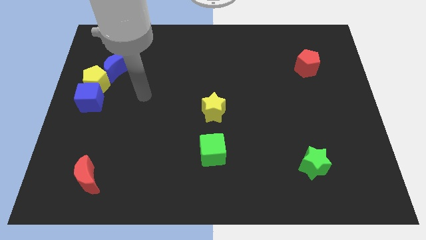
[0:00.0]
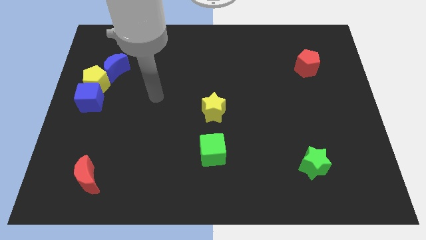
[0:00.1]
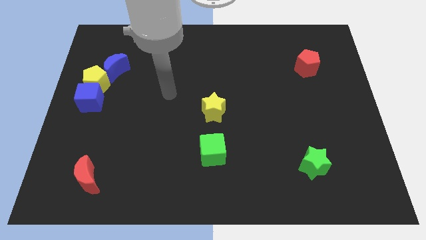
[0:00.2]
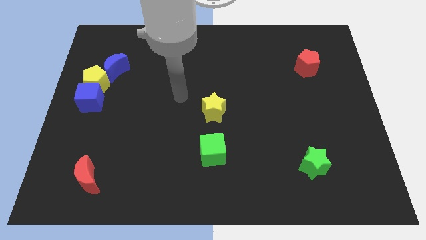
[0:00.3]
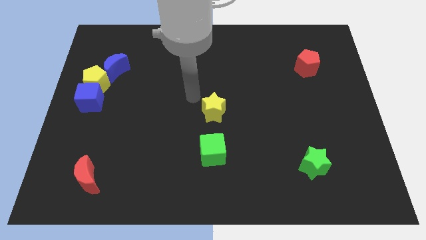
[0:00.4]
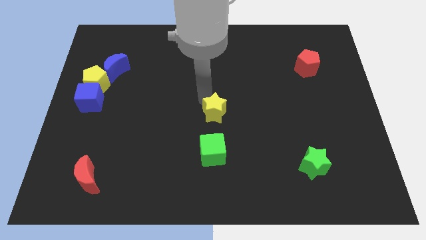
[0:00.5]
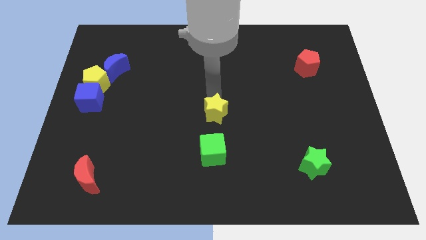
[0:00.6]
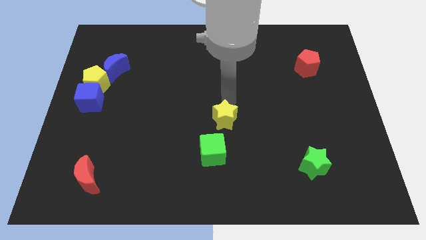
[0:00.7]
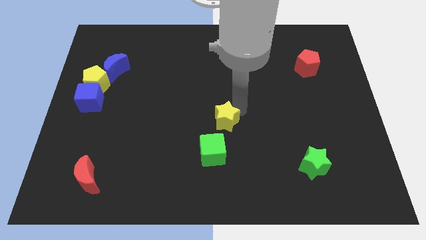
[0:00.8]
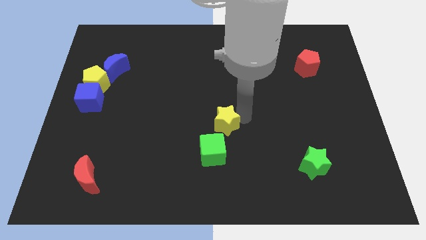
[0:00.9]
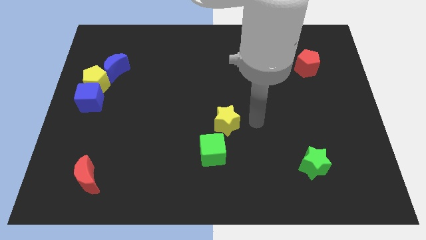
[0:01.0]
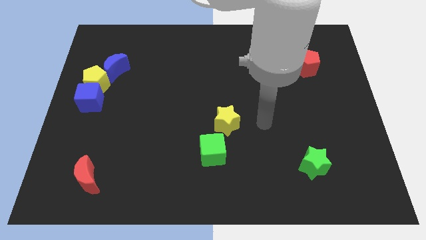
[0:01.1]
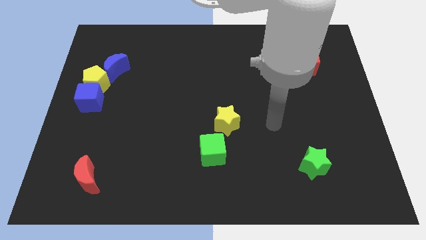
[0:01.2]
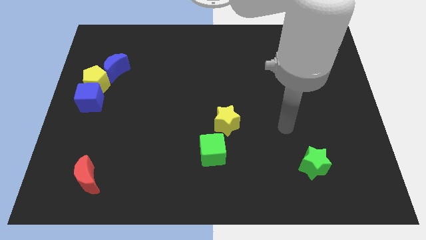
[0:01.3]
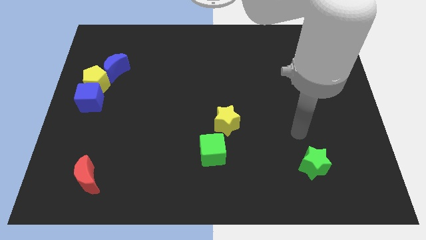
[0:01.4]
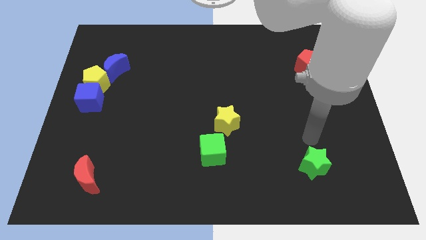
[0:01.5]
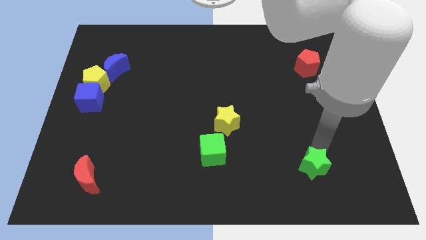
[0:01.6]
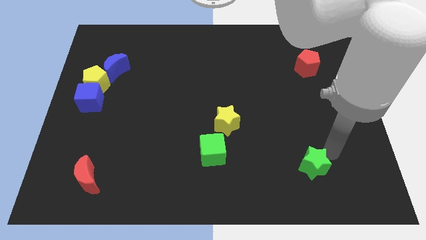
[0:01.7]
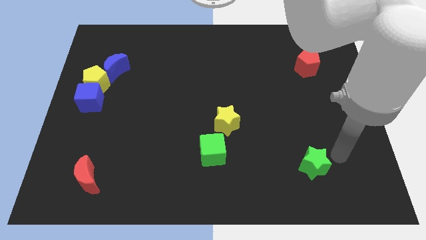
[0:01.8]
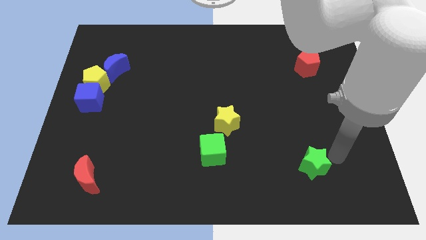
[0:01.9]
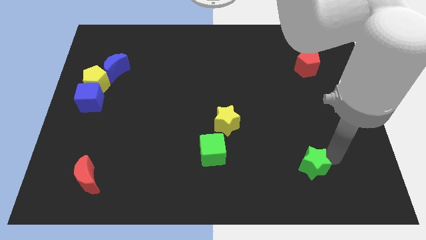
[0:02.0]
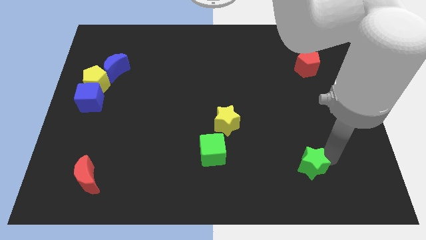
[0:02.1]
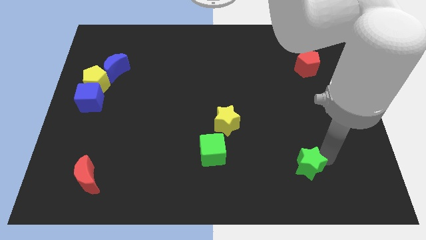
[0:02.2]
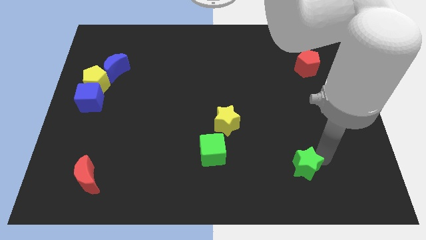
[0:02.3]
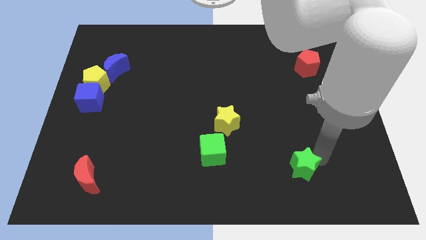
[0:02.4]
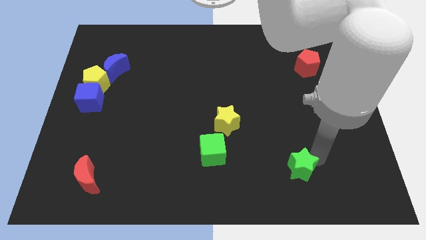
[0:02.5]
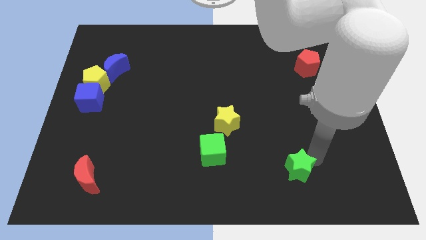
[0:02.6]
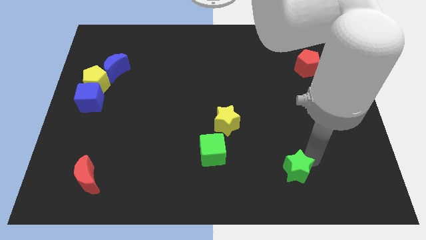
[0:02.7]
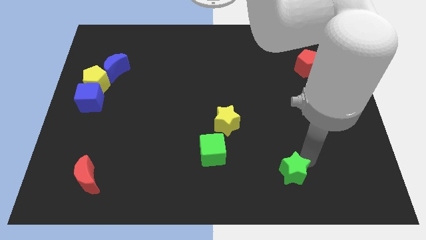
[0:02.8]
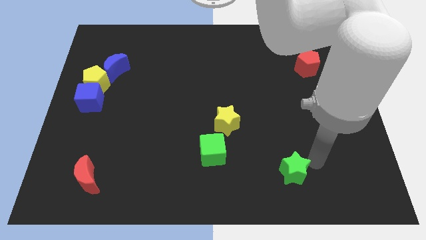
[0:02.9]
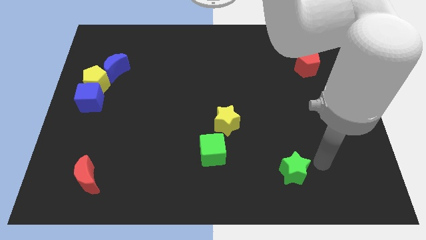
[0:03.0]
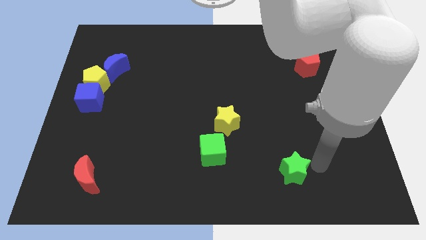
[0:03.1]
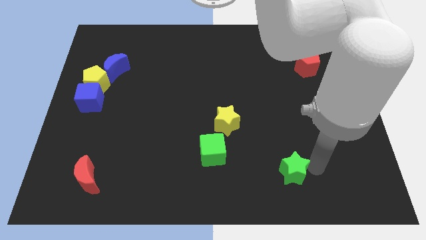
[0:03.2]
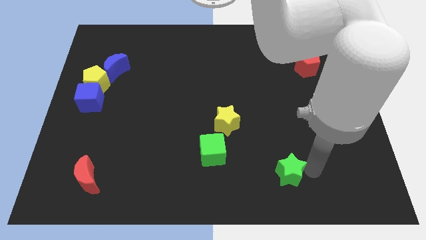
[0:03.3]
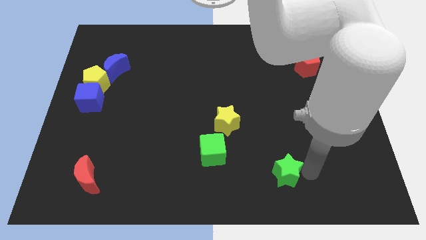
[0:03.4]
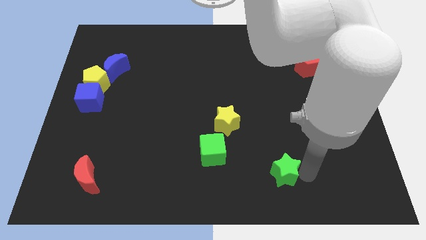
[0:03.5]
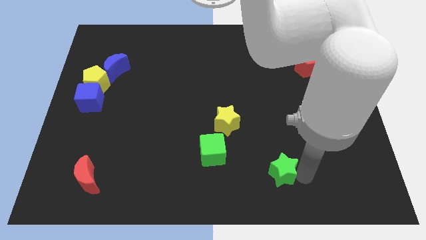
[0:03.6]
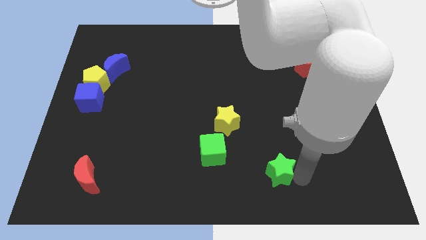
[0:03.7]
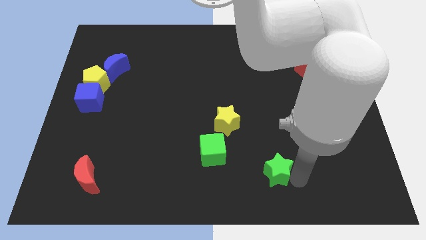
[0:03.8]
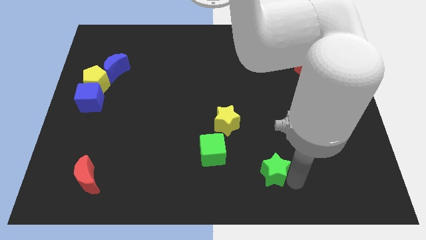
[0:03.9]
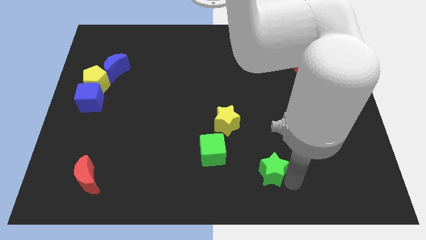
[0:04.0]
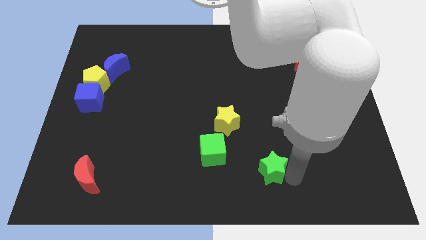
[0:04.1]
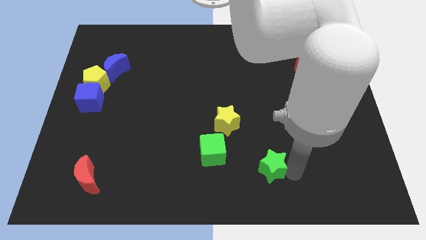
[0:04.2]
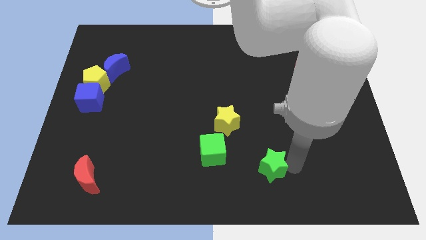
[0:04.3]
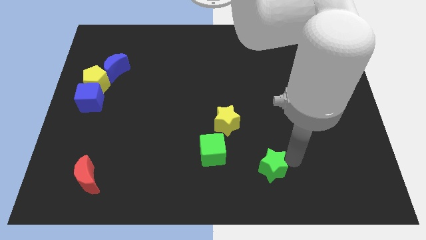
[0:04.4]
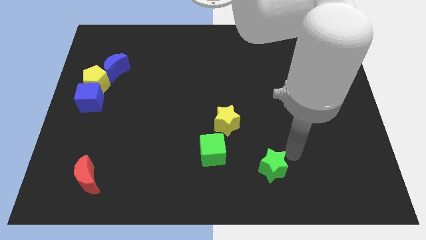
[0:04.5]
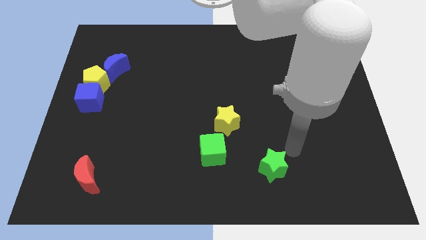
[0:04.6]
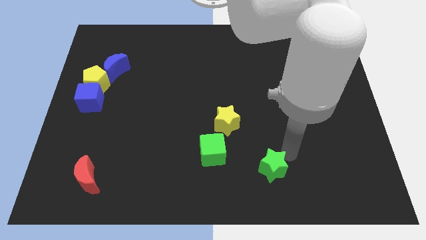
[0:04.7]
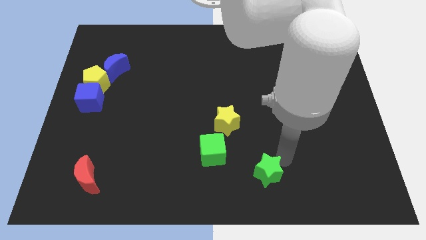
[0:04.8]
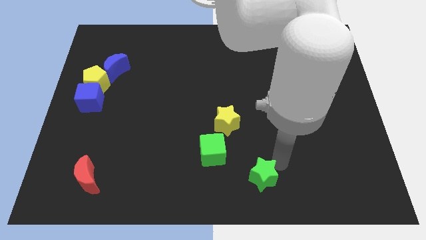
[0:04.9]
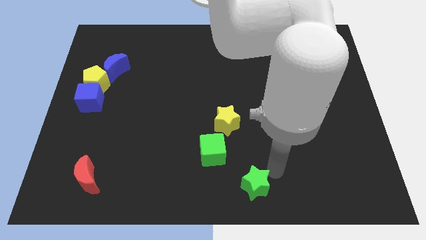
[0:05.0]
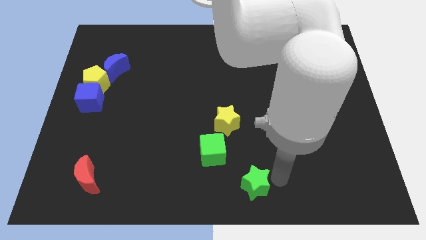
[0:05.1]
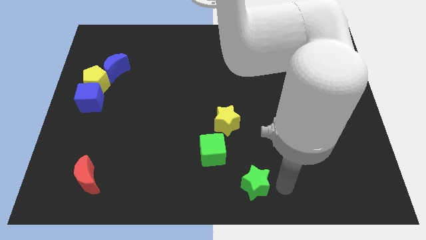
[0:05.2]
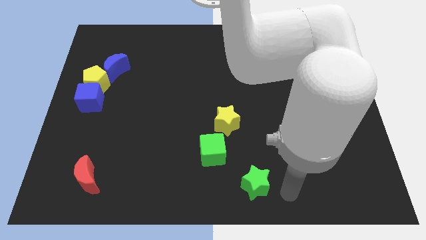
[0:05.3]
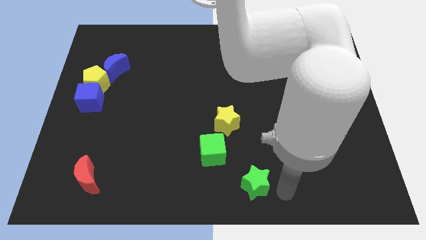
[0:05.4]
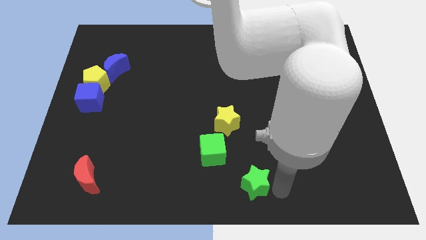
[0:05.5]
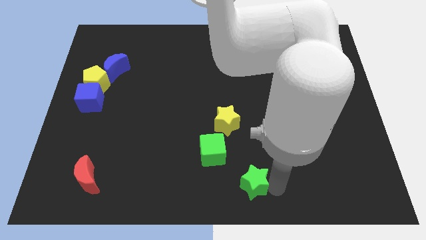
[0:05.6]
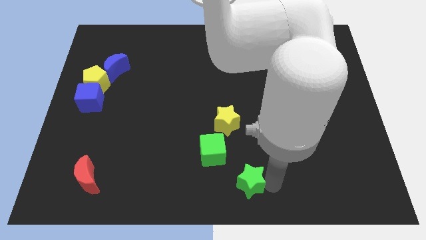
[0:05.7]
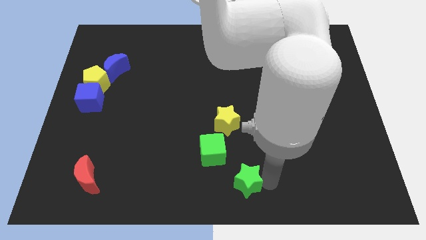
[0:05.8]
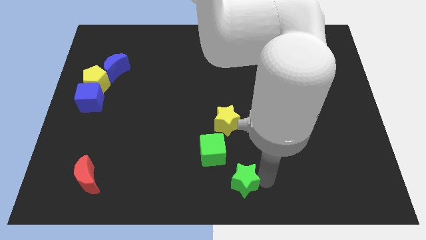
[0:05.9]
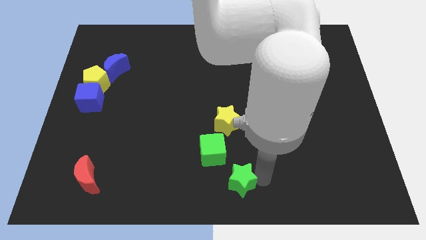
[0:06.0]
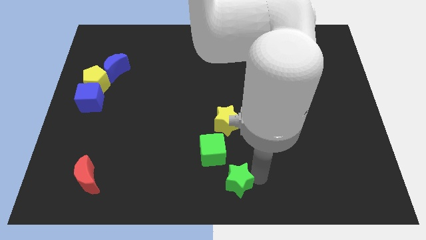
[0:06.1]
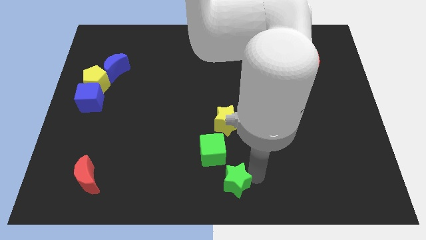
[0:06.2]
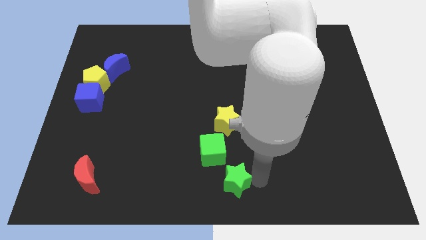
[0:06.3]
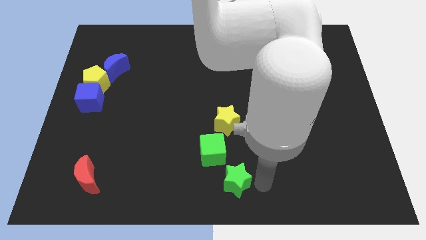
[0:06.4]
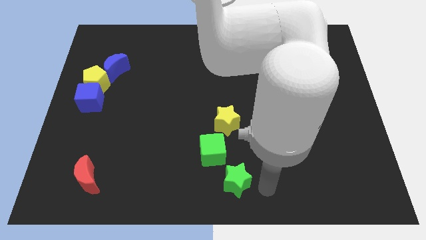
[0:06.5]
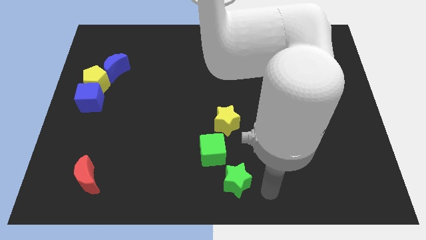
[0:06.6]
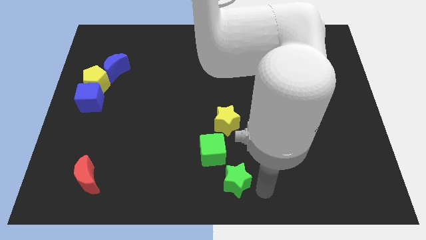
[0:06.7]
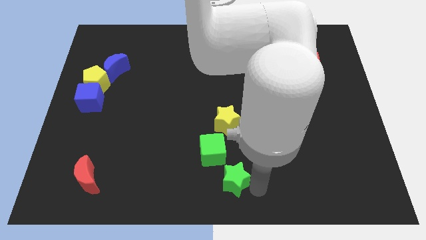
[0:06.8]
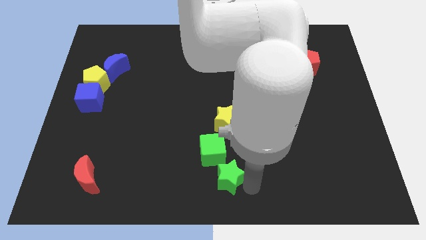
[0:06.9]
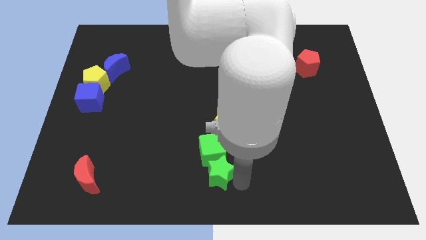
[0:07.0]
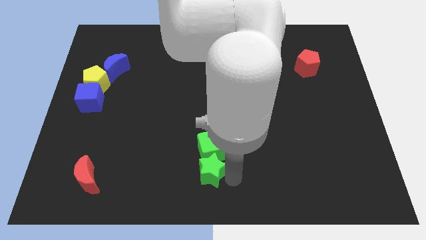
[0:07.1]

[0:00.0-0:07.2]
push the green star diagonally down and to the left of the green cube
